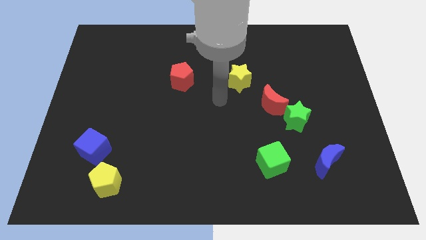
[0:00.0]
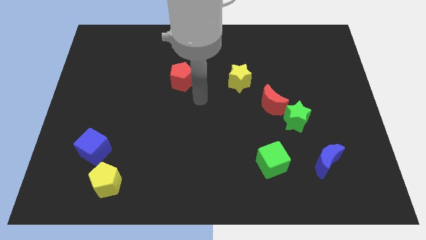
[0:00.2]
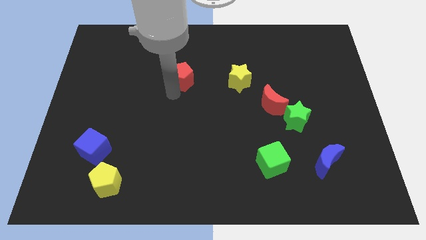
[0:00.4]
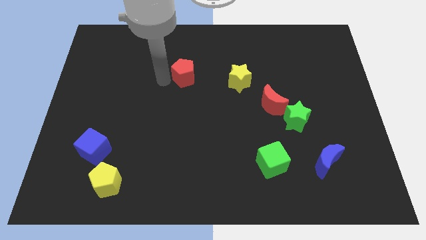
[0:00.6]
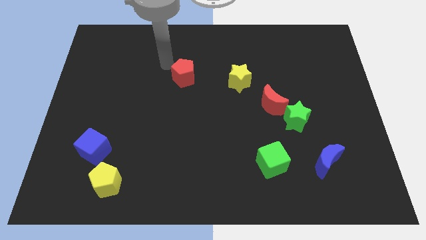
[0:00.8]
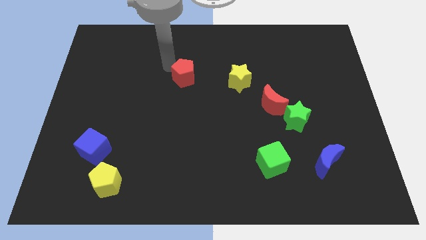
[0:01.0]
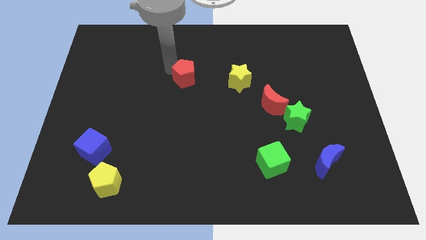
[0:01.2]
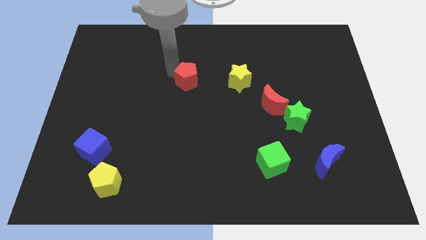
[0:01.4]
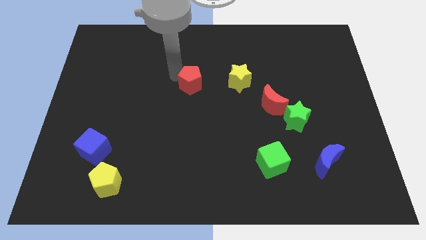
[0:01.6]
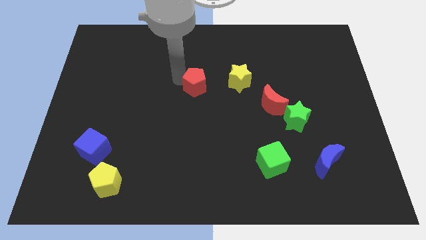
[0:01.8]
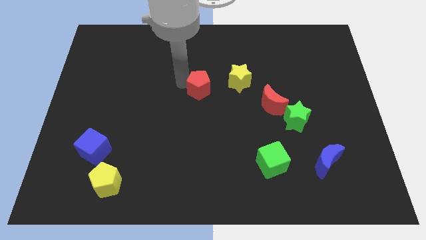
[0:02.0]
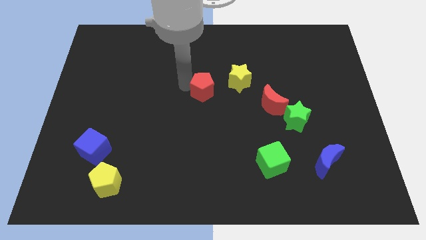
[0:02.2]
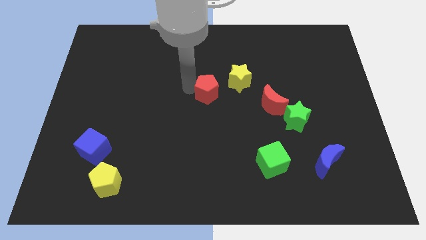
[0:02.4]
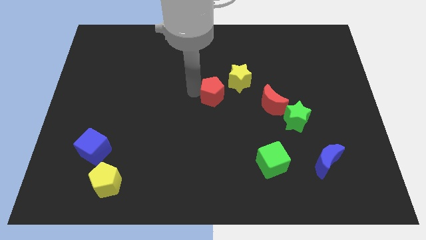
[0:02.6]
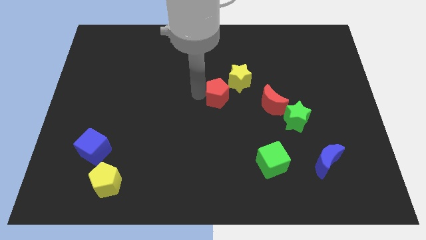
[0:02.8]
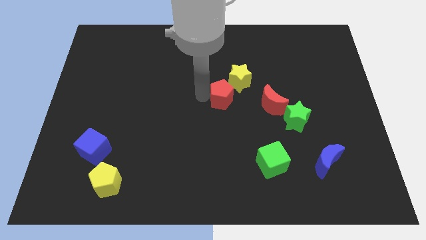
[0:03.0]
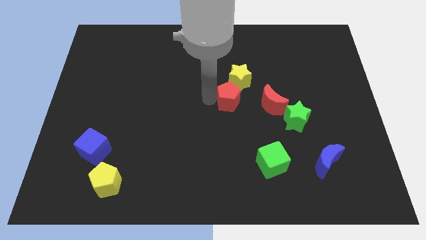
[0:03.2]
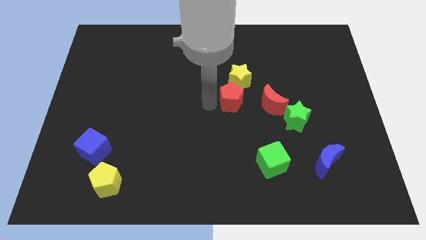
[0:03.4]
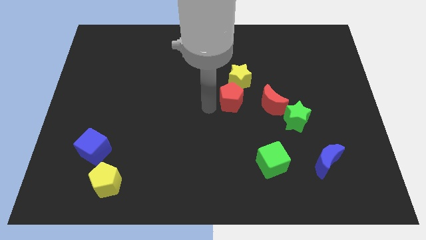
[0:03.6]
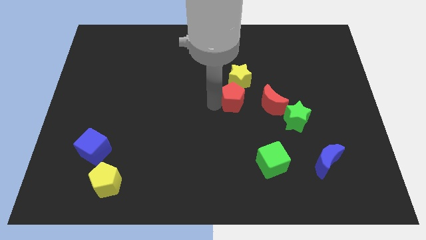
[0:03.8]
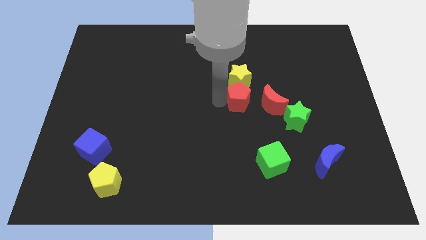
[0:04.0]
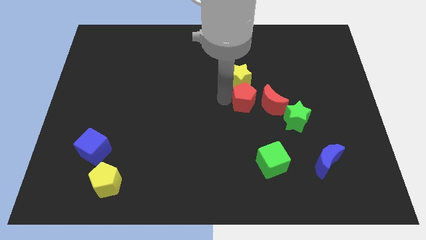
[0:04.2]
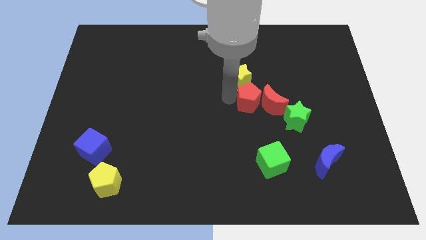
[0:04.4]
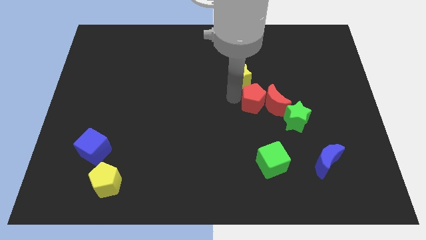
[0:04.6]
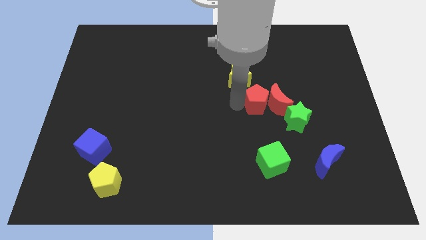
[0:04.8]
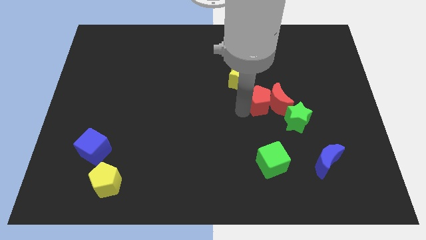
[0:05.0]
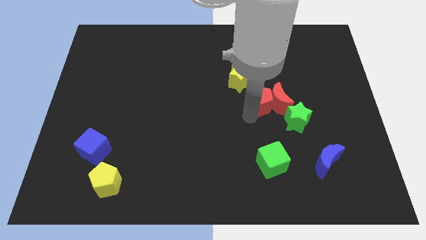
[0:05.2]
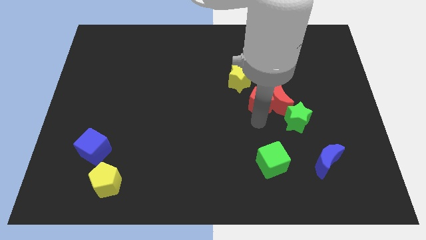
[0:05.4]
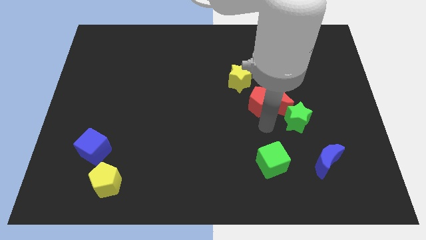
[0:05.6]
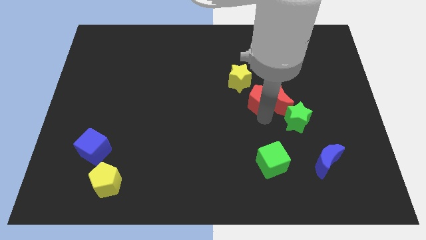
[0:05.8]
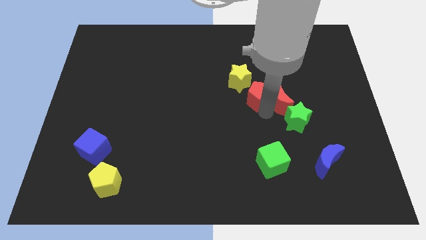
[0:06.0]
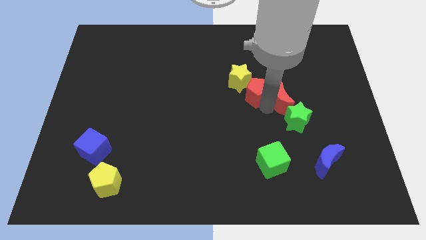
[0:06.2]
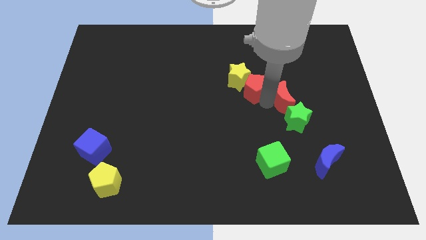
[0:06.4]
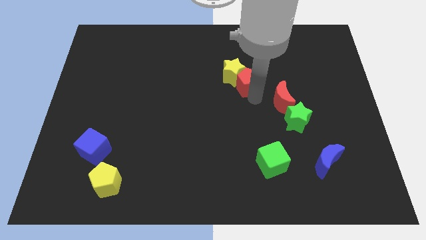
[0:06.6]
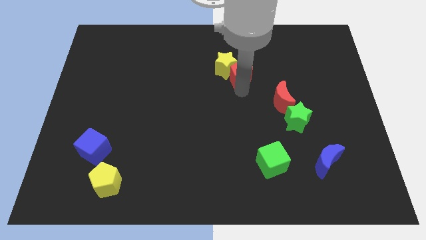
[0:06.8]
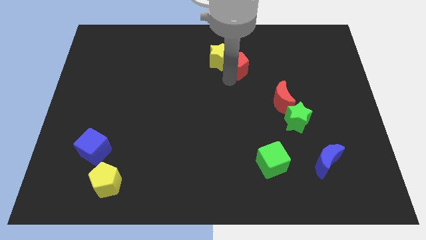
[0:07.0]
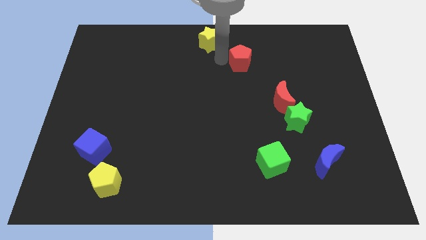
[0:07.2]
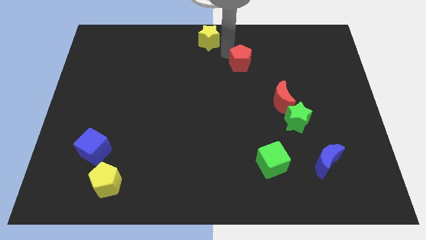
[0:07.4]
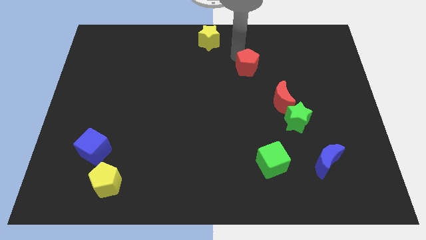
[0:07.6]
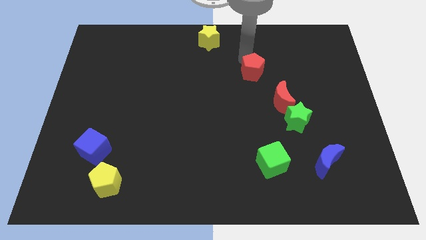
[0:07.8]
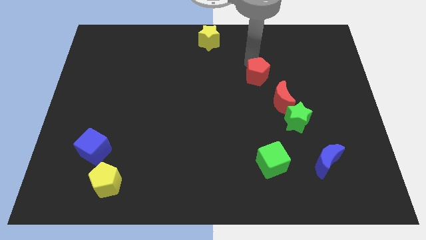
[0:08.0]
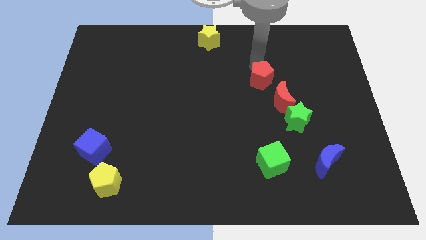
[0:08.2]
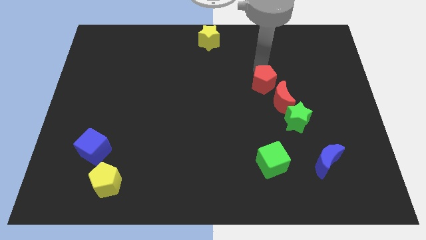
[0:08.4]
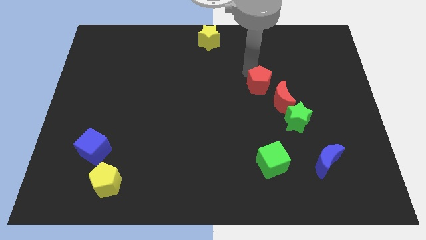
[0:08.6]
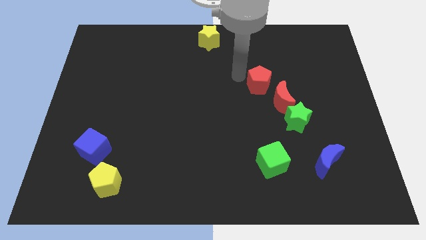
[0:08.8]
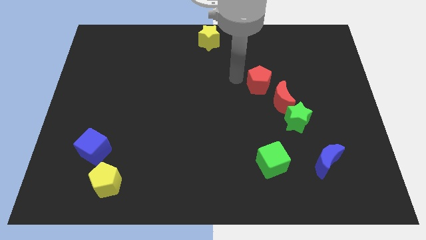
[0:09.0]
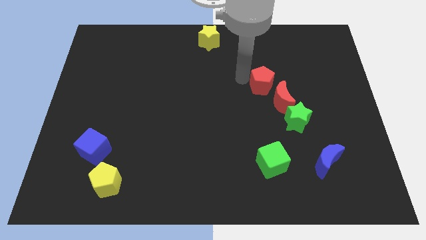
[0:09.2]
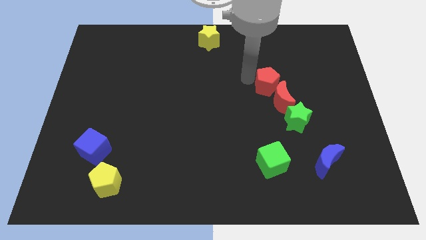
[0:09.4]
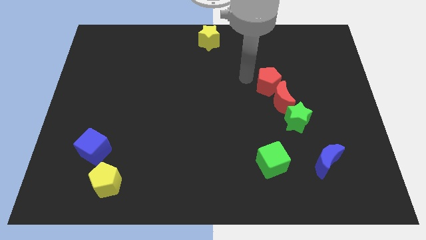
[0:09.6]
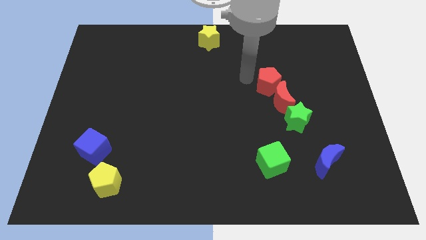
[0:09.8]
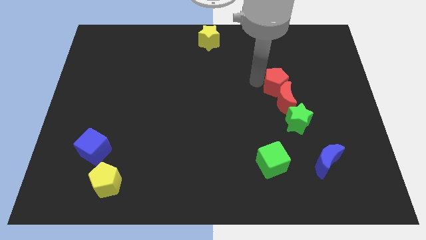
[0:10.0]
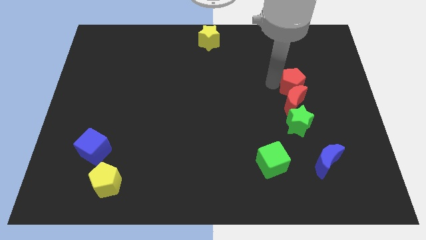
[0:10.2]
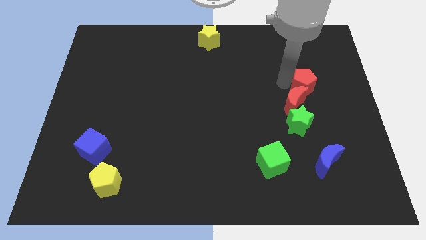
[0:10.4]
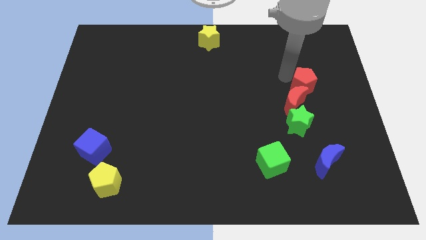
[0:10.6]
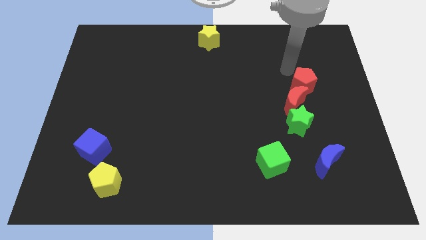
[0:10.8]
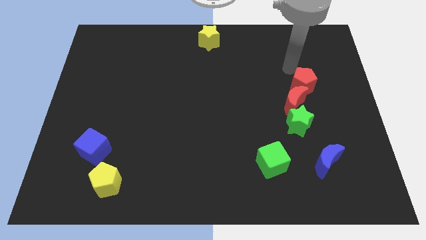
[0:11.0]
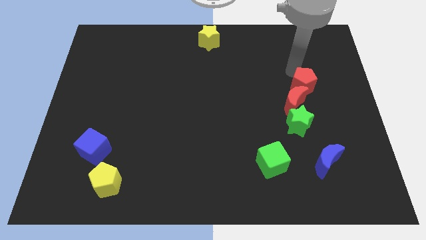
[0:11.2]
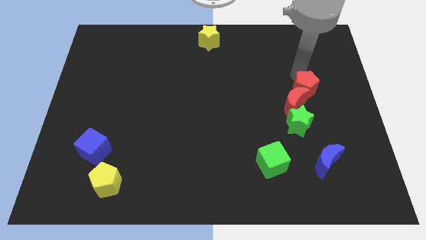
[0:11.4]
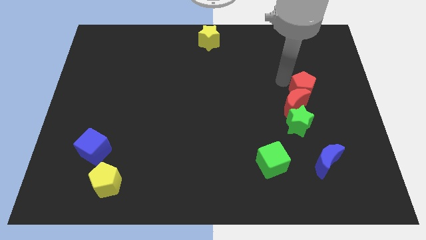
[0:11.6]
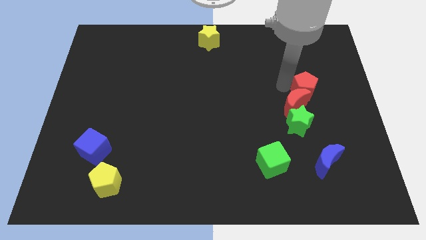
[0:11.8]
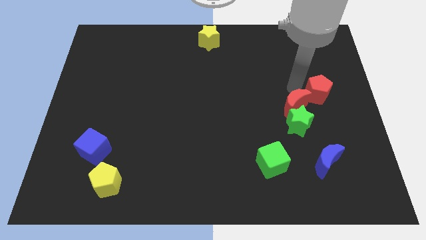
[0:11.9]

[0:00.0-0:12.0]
put the red pentagon to the right side

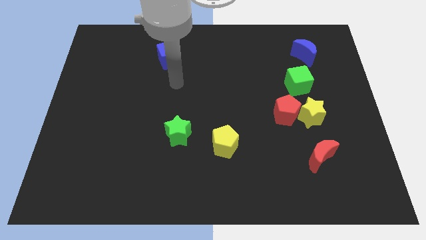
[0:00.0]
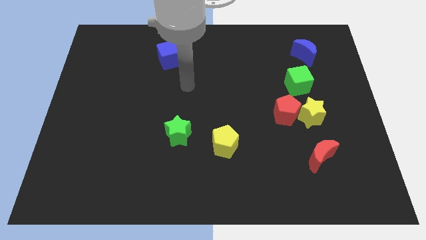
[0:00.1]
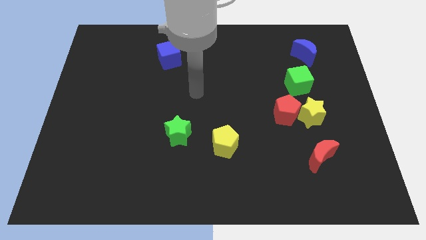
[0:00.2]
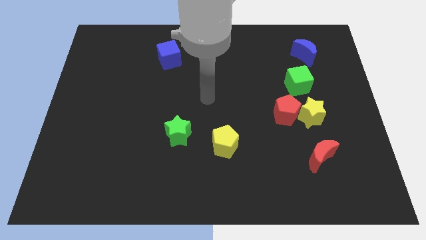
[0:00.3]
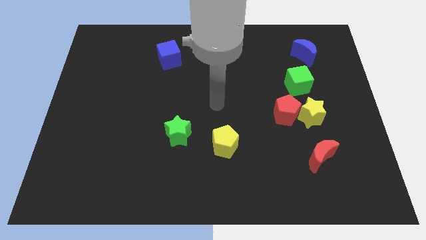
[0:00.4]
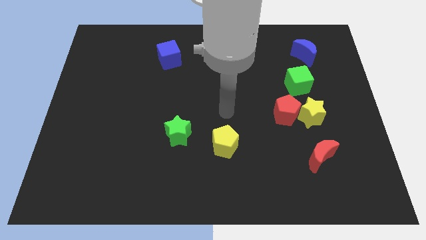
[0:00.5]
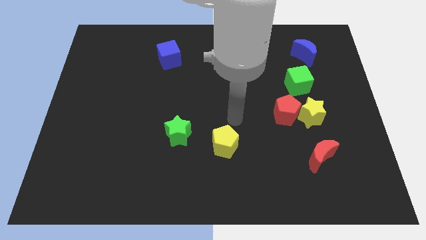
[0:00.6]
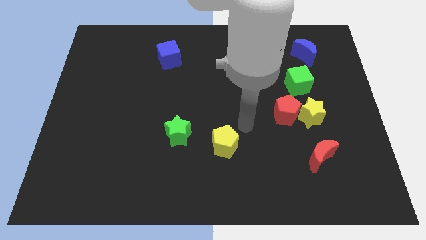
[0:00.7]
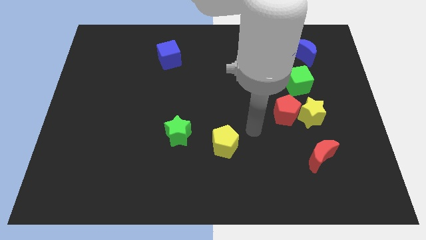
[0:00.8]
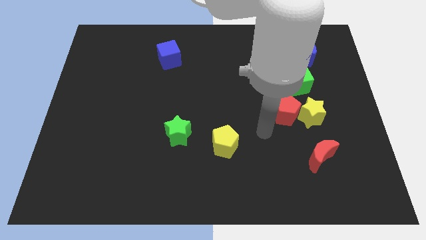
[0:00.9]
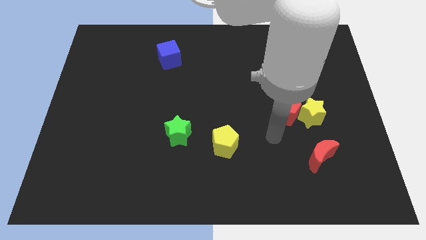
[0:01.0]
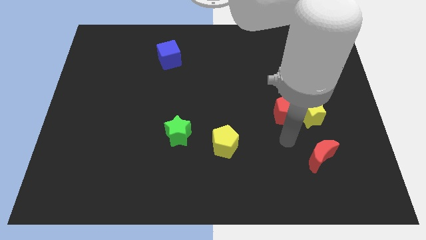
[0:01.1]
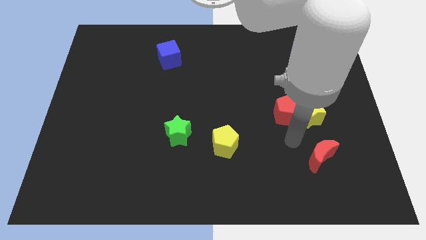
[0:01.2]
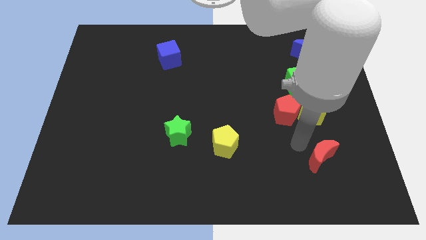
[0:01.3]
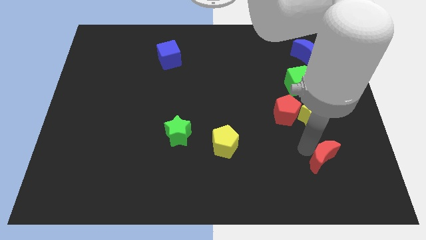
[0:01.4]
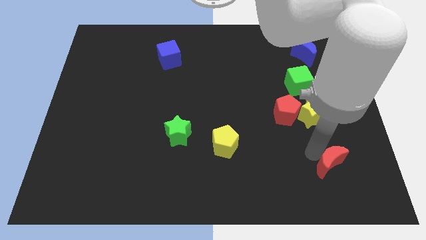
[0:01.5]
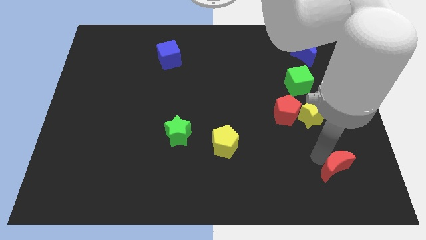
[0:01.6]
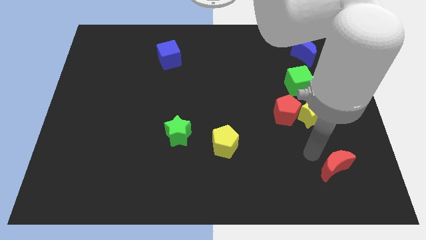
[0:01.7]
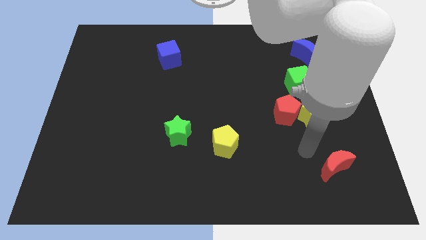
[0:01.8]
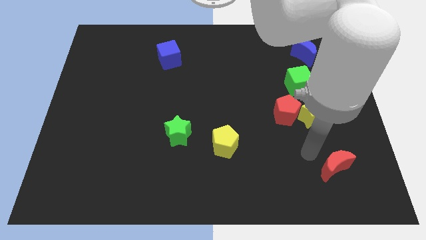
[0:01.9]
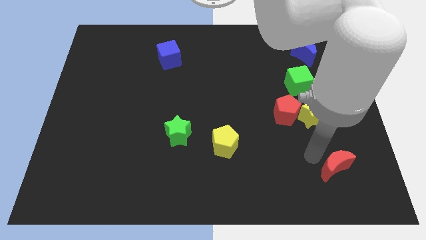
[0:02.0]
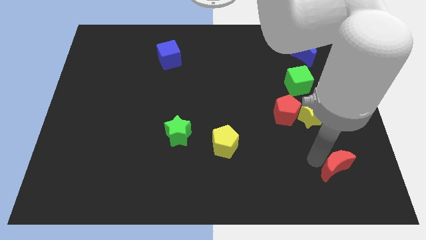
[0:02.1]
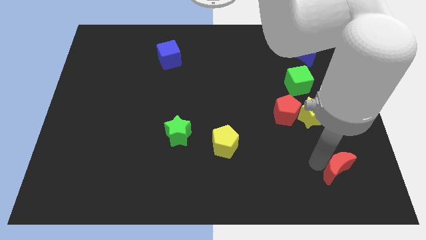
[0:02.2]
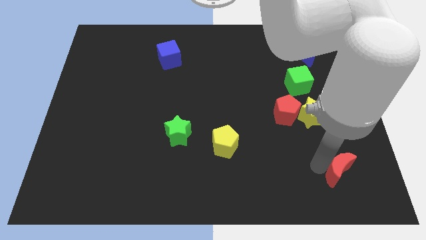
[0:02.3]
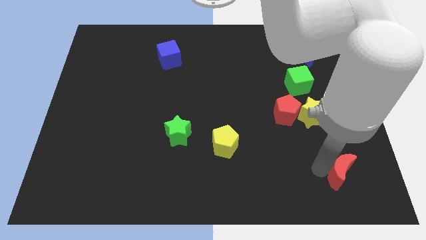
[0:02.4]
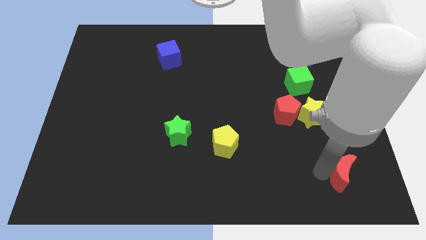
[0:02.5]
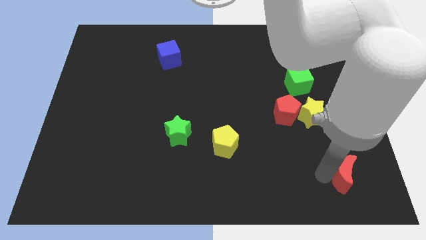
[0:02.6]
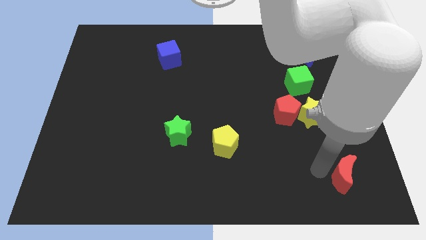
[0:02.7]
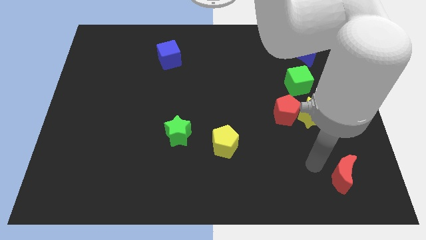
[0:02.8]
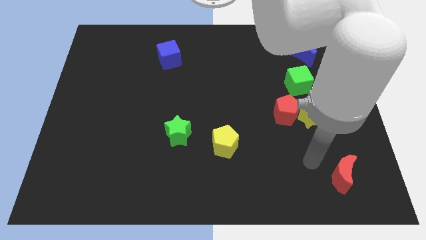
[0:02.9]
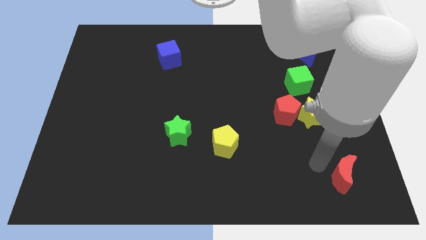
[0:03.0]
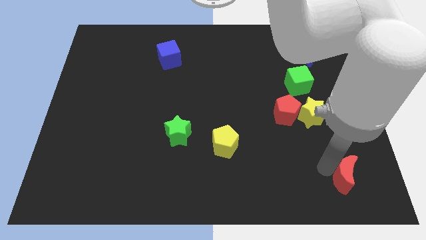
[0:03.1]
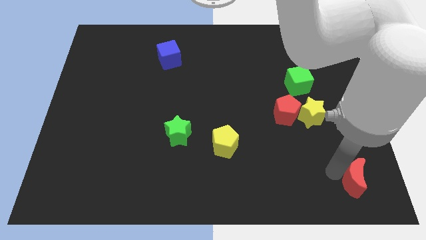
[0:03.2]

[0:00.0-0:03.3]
push the red moon to the bottom right corner
